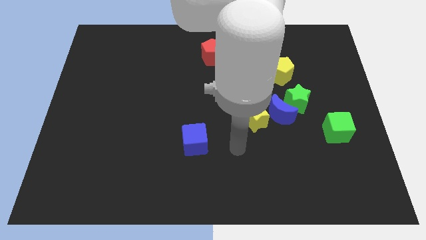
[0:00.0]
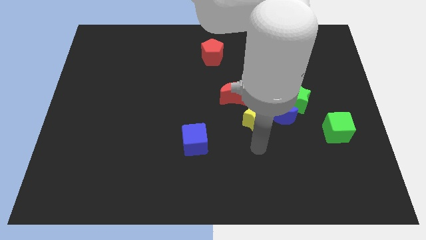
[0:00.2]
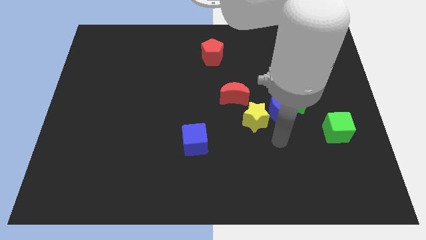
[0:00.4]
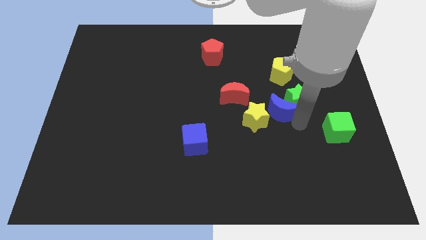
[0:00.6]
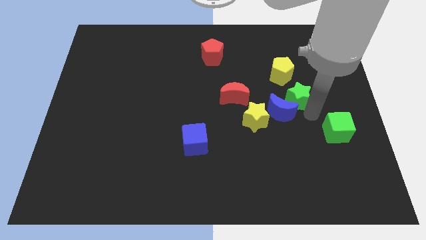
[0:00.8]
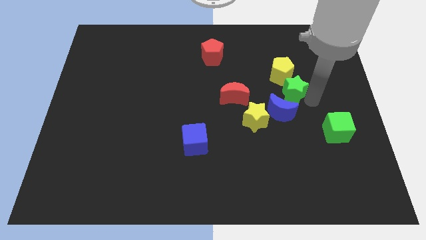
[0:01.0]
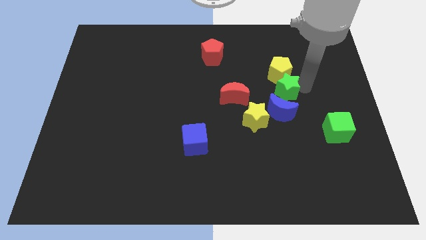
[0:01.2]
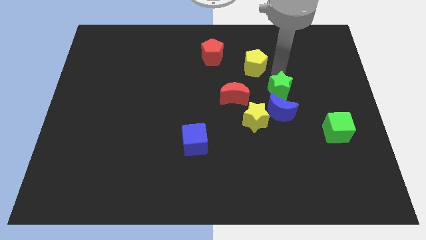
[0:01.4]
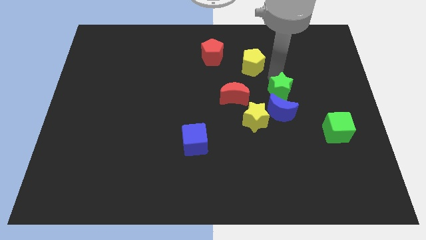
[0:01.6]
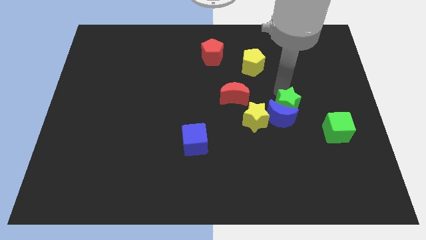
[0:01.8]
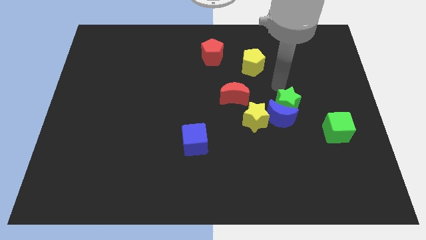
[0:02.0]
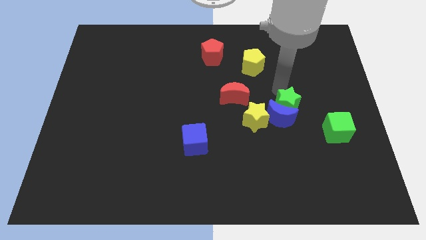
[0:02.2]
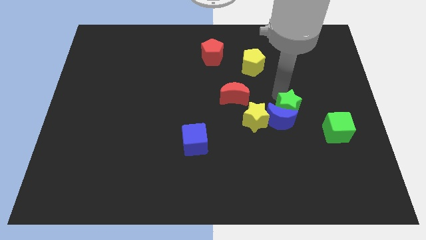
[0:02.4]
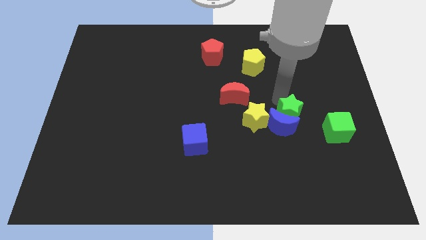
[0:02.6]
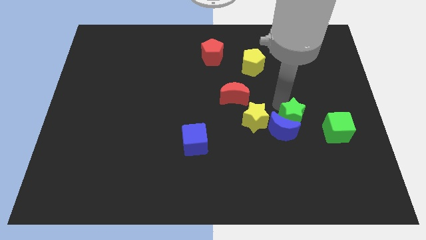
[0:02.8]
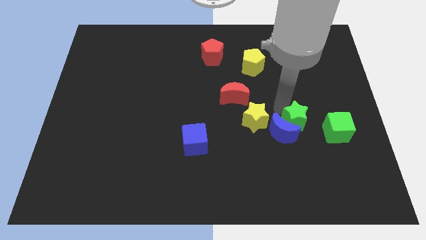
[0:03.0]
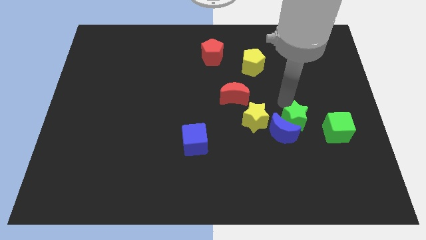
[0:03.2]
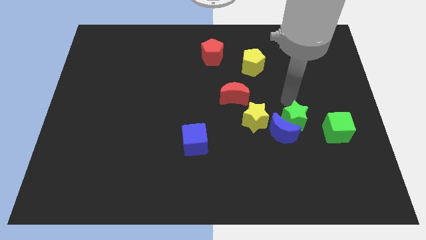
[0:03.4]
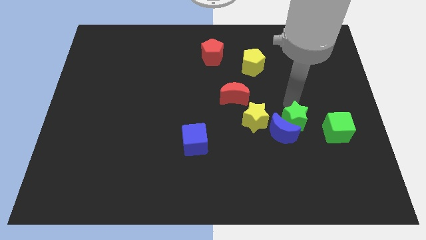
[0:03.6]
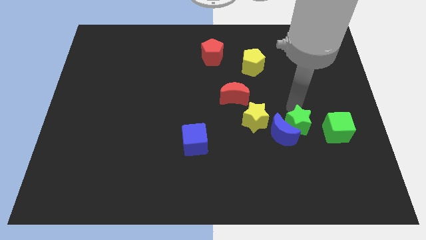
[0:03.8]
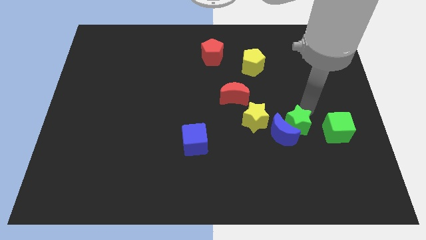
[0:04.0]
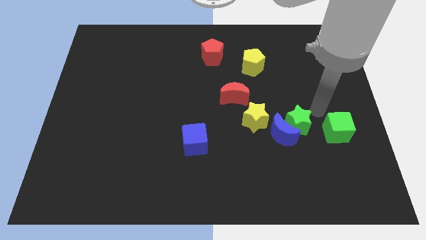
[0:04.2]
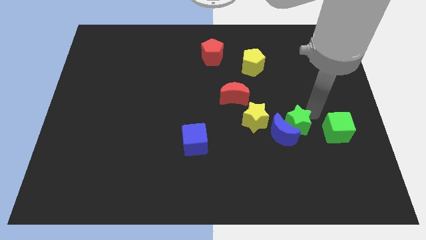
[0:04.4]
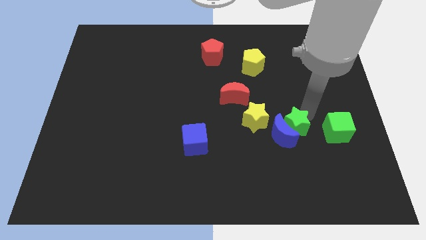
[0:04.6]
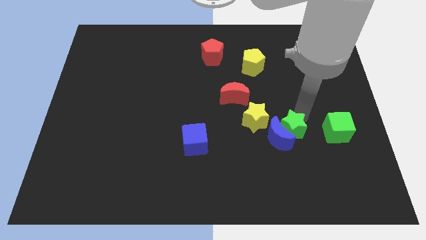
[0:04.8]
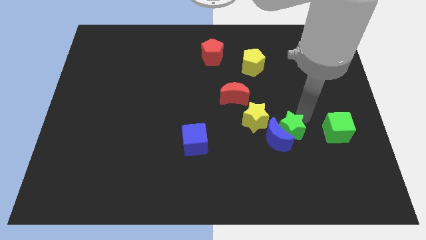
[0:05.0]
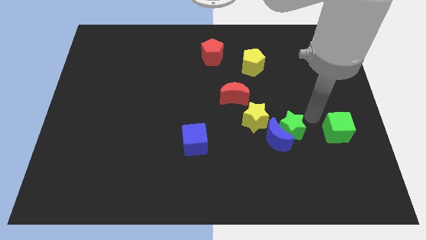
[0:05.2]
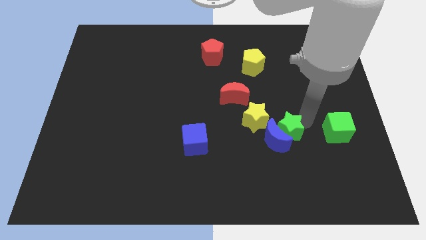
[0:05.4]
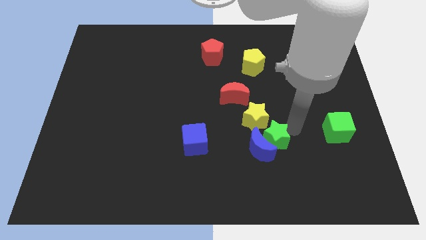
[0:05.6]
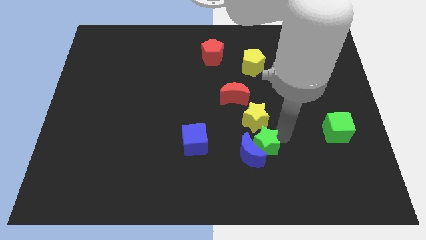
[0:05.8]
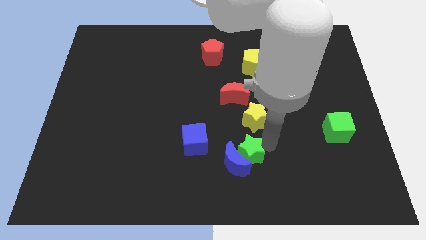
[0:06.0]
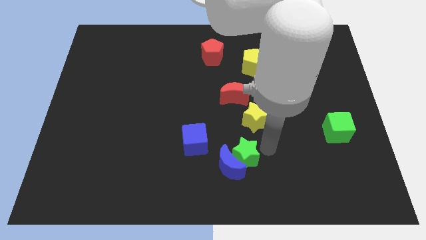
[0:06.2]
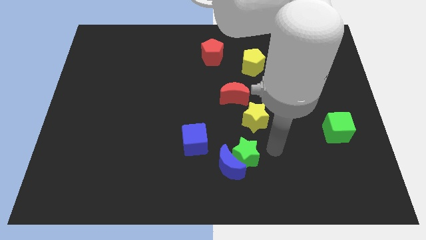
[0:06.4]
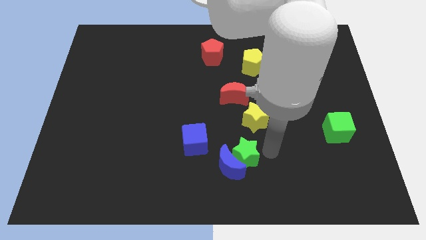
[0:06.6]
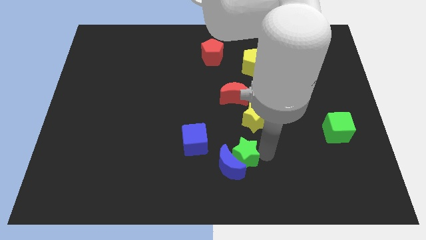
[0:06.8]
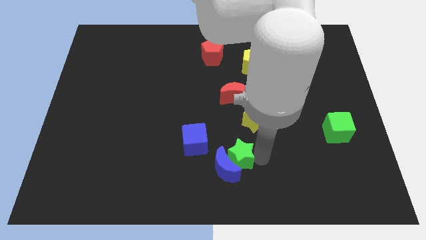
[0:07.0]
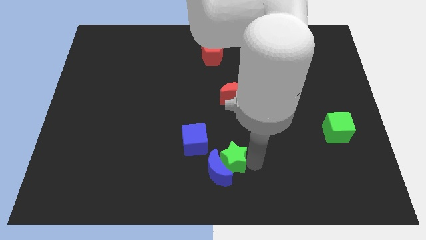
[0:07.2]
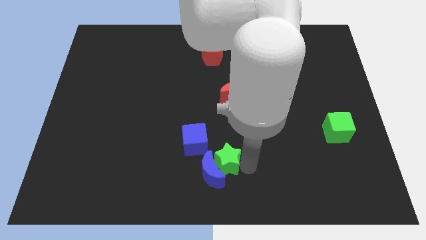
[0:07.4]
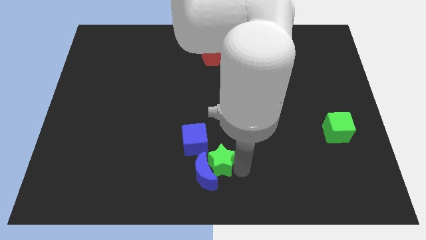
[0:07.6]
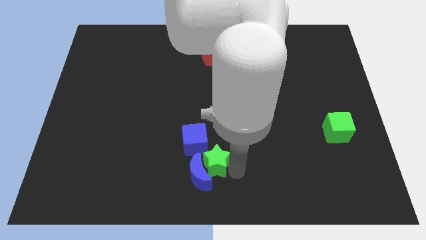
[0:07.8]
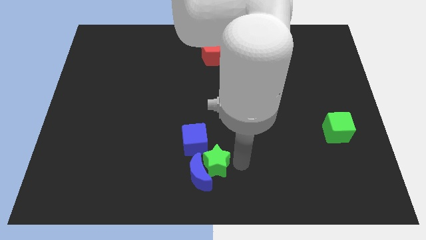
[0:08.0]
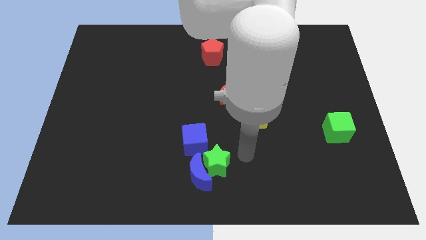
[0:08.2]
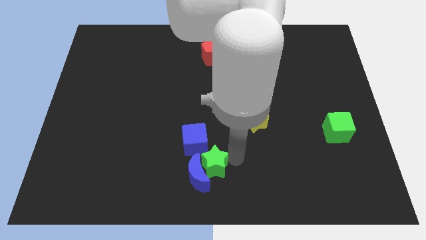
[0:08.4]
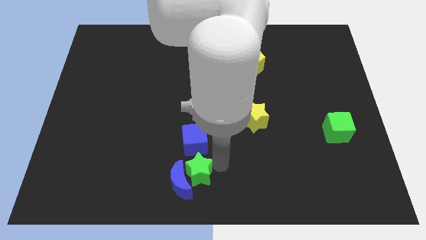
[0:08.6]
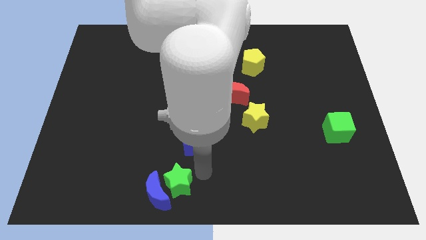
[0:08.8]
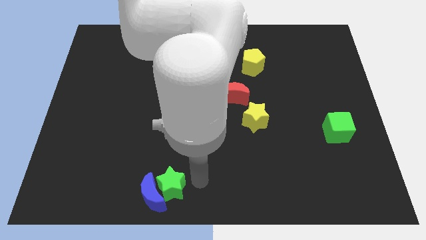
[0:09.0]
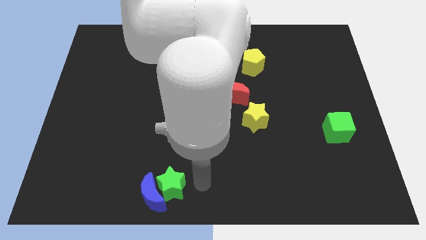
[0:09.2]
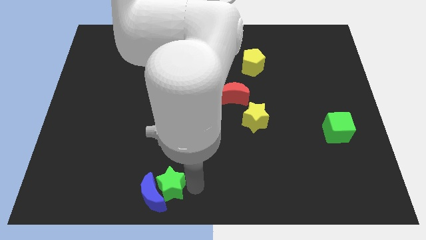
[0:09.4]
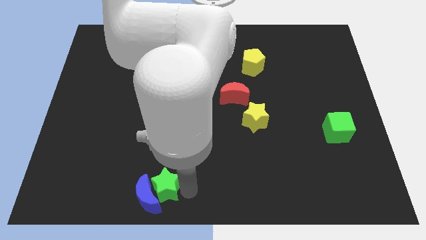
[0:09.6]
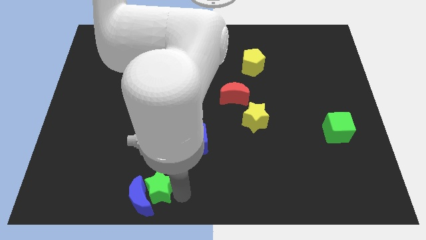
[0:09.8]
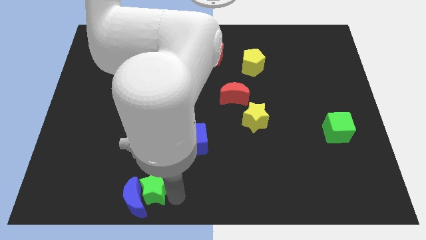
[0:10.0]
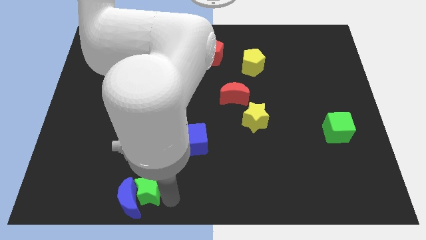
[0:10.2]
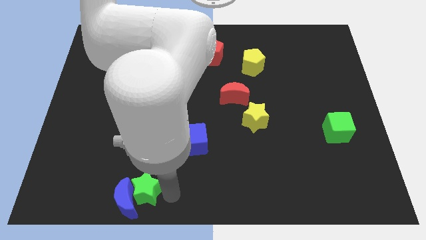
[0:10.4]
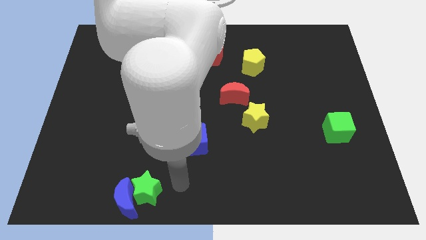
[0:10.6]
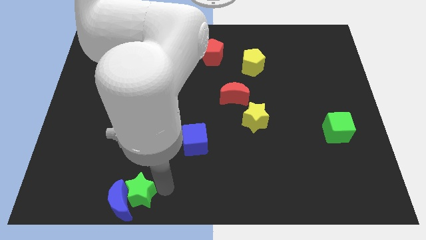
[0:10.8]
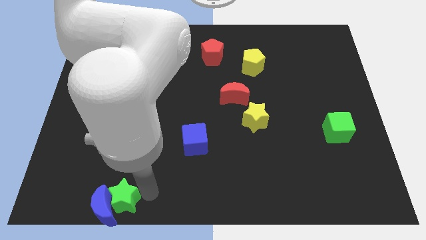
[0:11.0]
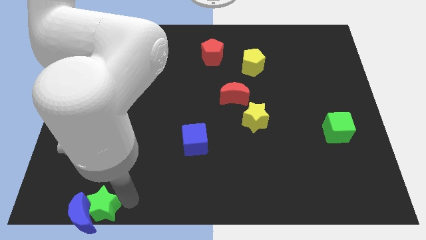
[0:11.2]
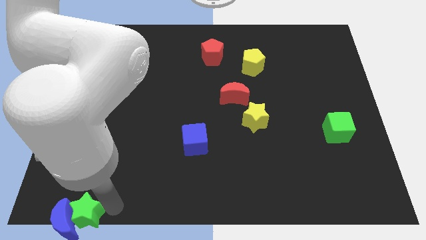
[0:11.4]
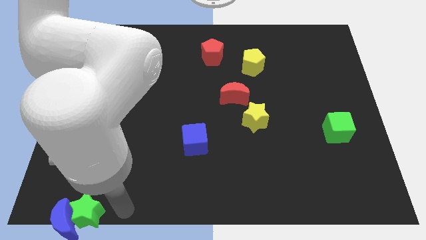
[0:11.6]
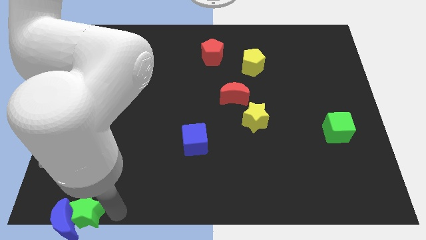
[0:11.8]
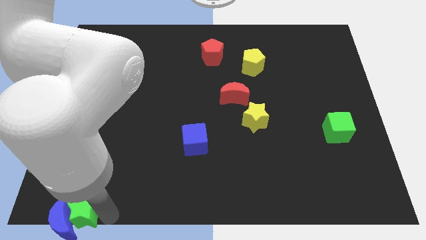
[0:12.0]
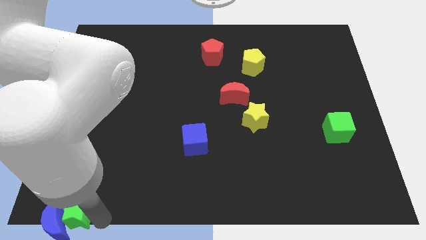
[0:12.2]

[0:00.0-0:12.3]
move the green star to the bottom left
